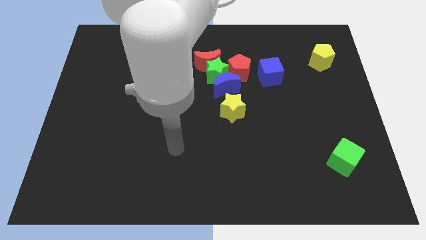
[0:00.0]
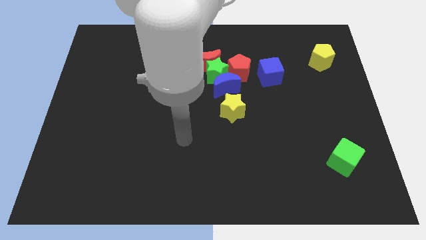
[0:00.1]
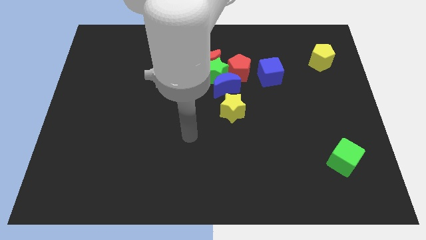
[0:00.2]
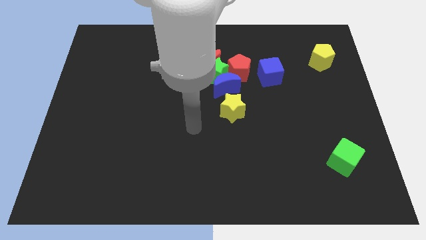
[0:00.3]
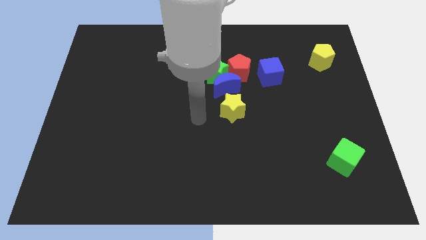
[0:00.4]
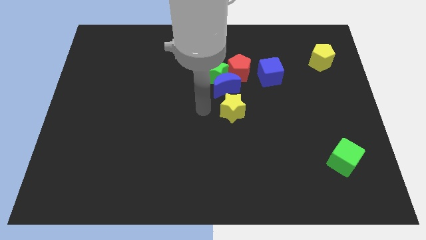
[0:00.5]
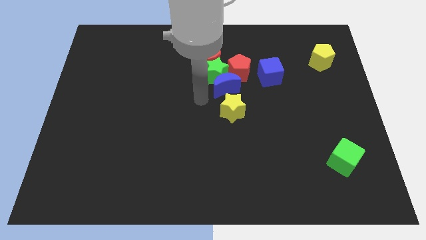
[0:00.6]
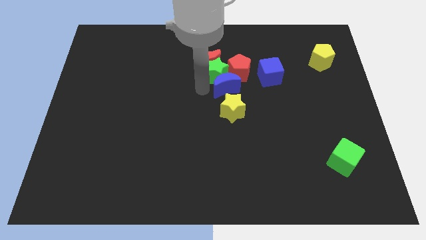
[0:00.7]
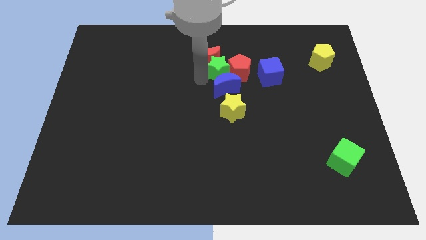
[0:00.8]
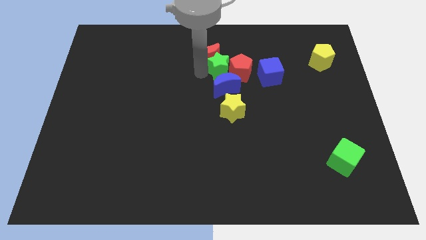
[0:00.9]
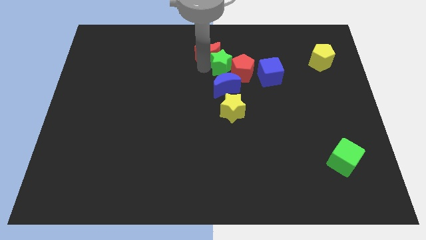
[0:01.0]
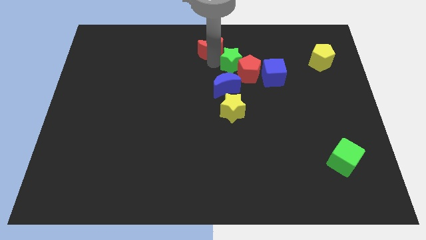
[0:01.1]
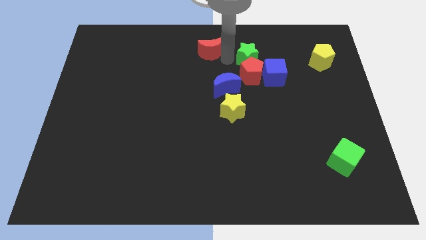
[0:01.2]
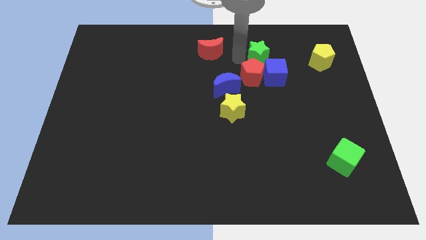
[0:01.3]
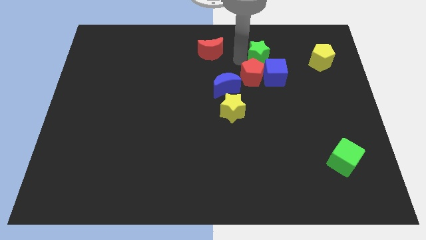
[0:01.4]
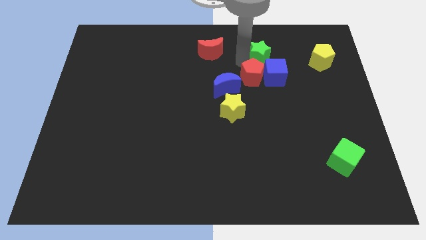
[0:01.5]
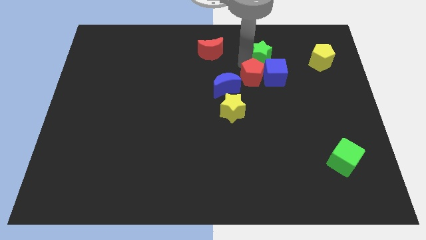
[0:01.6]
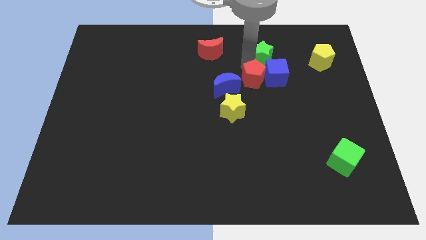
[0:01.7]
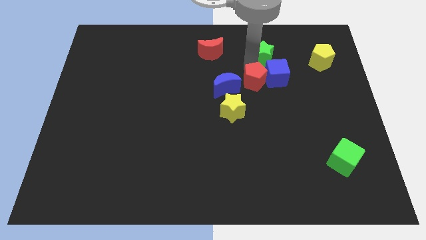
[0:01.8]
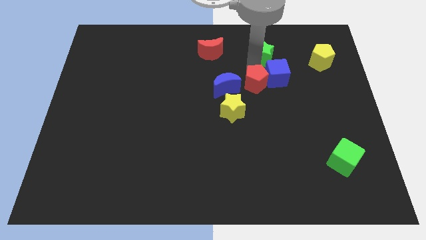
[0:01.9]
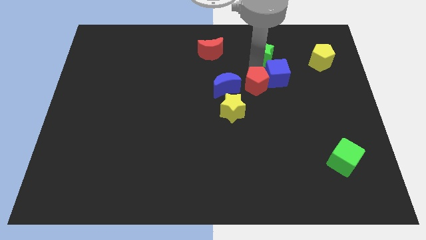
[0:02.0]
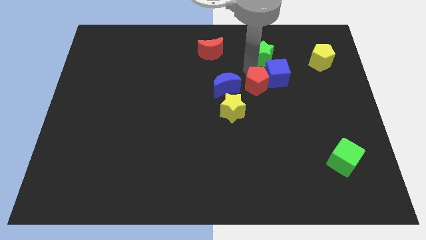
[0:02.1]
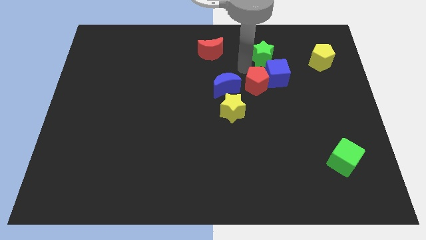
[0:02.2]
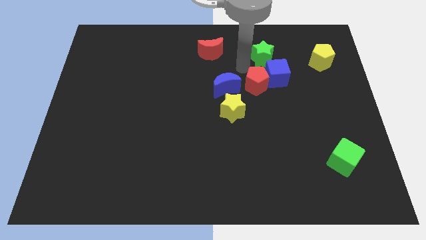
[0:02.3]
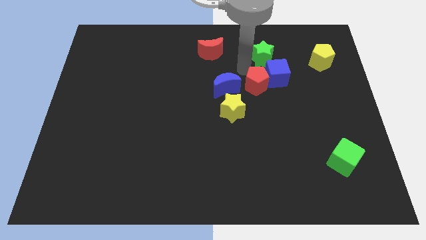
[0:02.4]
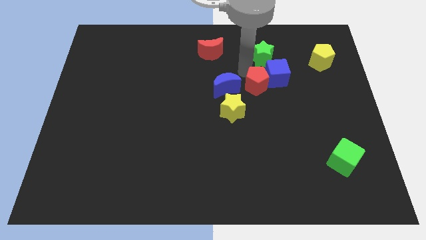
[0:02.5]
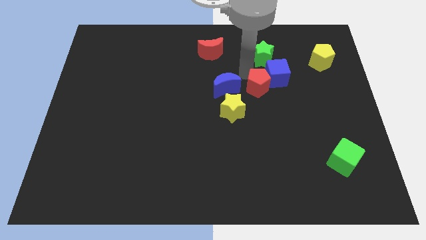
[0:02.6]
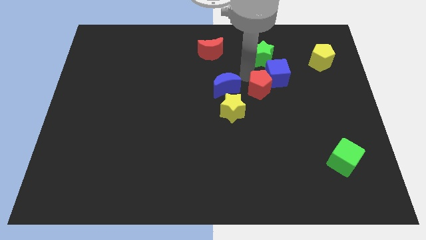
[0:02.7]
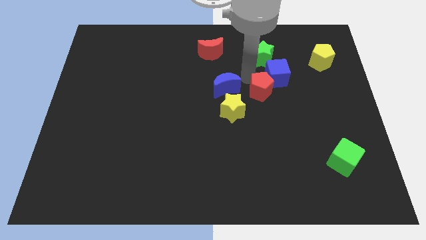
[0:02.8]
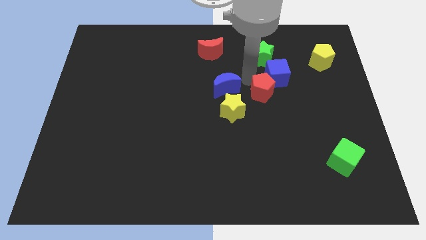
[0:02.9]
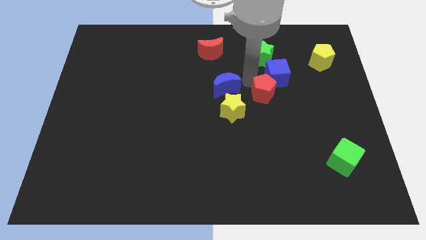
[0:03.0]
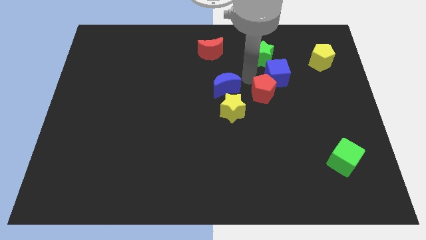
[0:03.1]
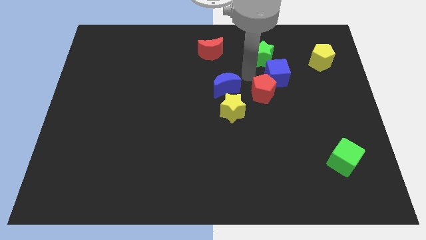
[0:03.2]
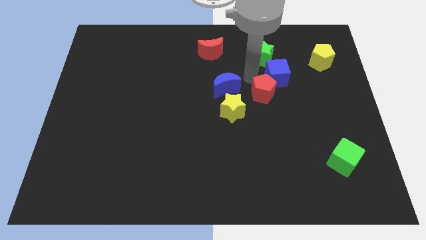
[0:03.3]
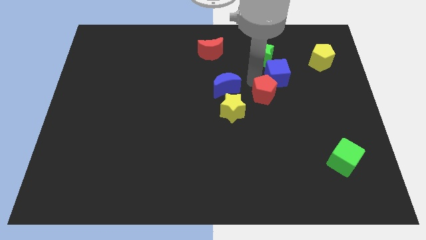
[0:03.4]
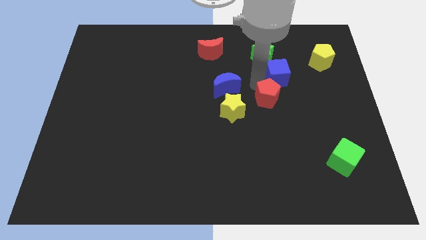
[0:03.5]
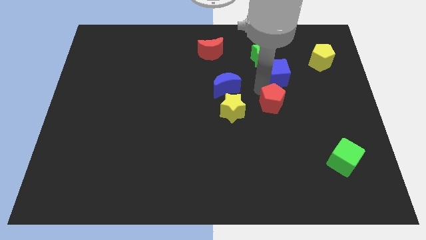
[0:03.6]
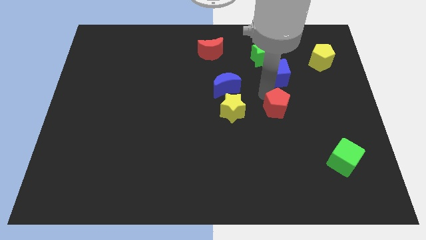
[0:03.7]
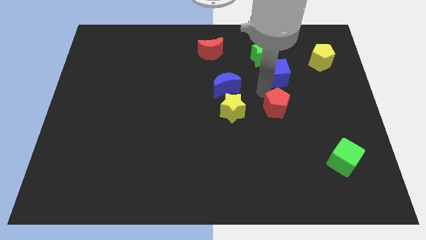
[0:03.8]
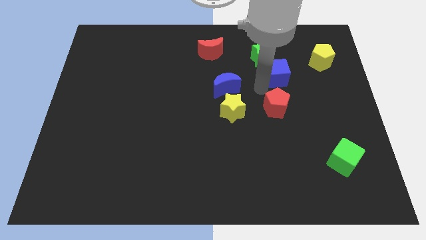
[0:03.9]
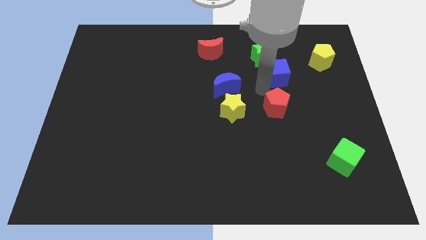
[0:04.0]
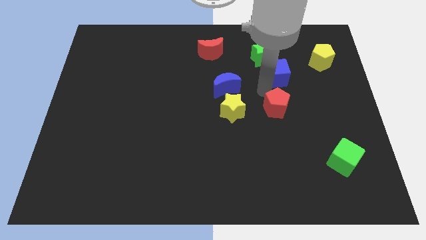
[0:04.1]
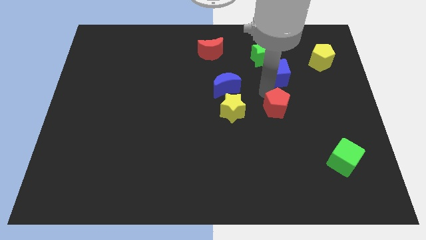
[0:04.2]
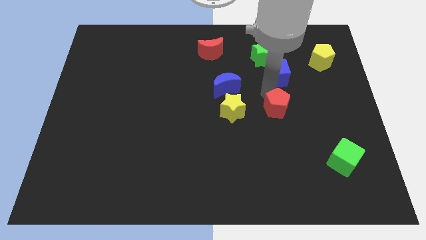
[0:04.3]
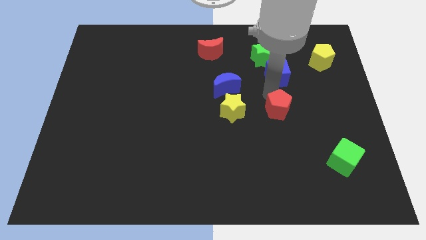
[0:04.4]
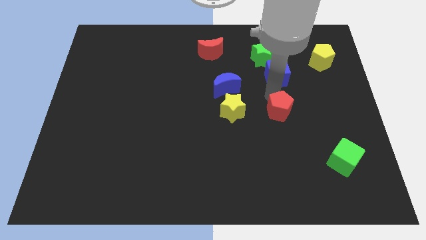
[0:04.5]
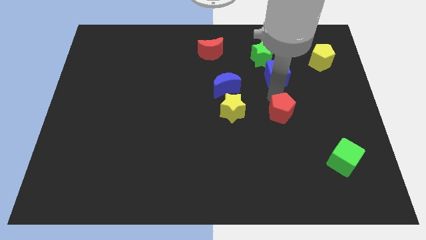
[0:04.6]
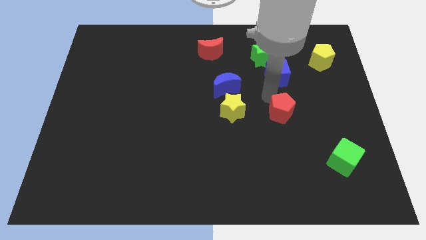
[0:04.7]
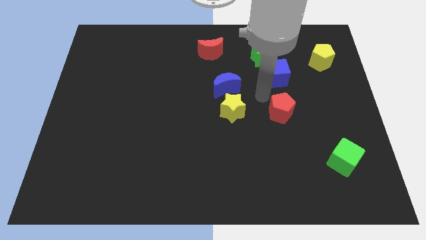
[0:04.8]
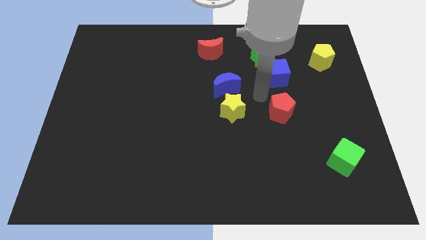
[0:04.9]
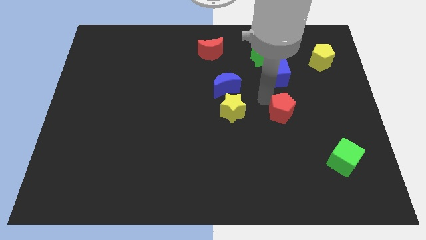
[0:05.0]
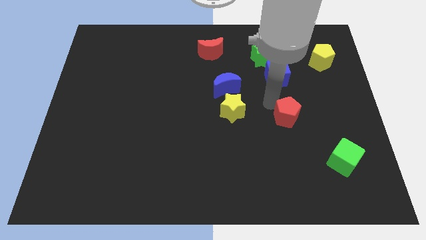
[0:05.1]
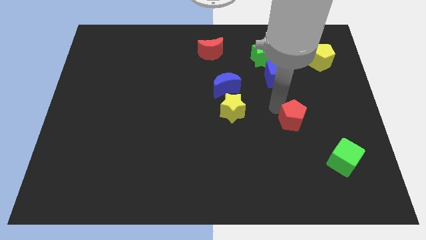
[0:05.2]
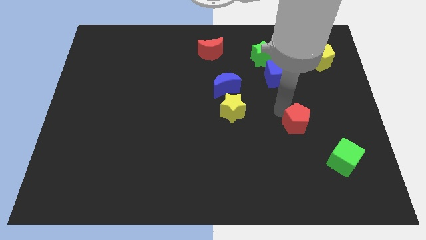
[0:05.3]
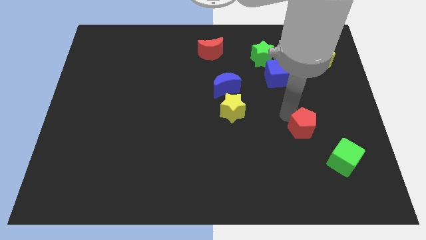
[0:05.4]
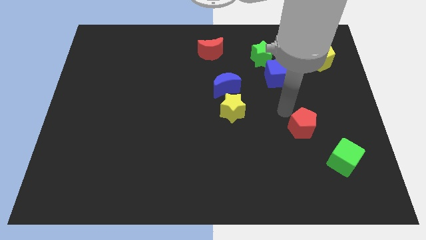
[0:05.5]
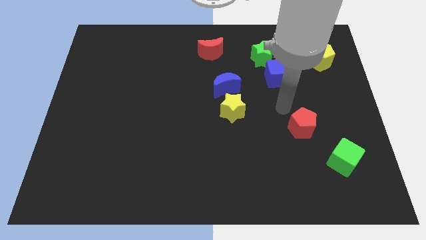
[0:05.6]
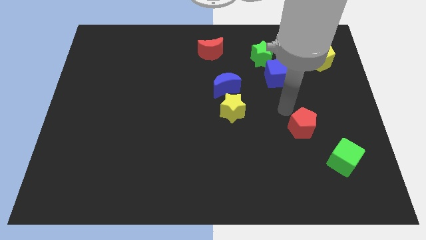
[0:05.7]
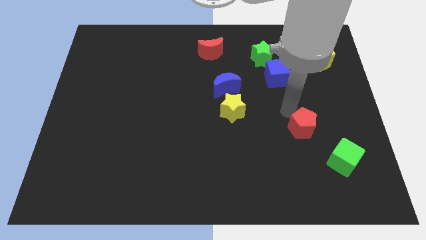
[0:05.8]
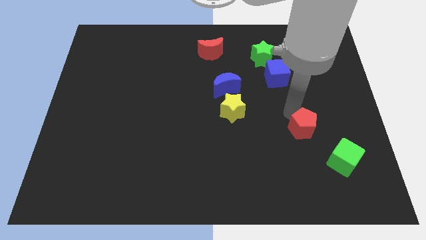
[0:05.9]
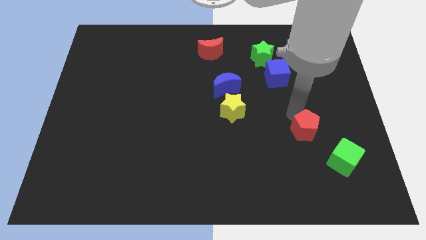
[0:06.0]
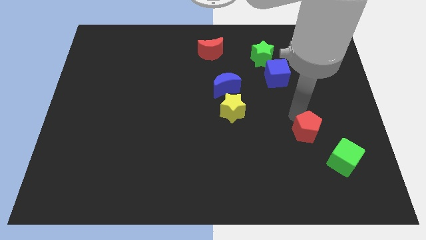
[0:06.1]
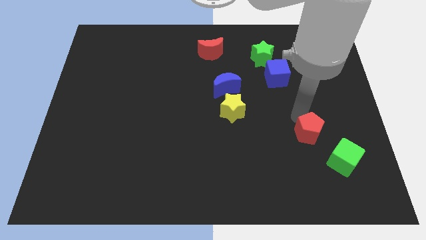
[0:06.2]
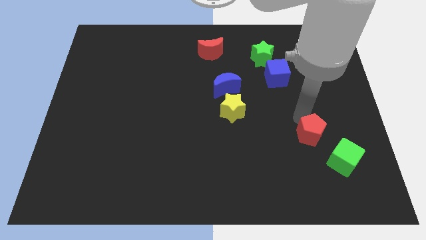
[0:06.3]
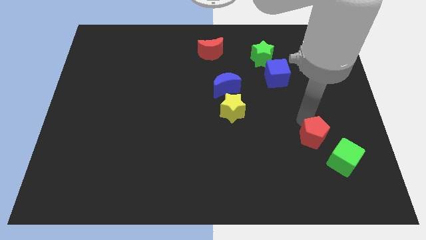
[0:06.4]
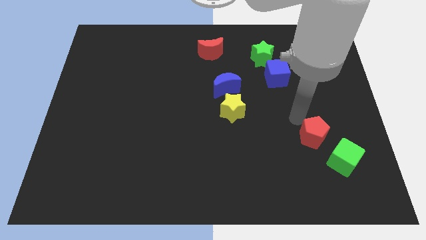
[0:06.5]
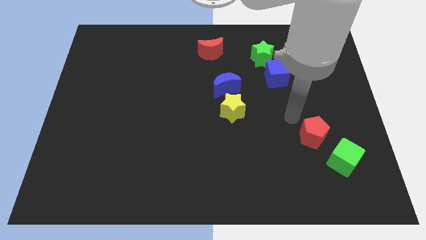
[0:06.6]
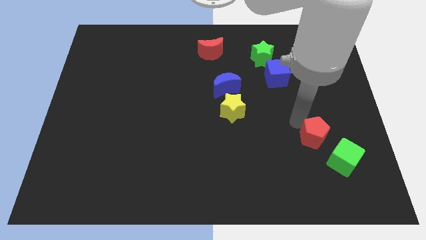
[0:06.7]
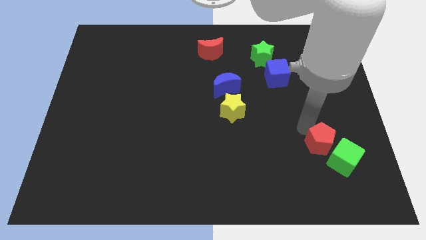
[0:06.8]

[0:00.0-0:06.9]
push the red pentagon towards the green cube
